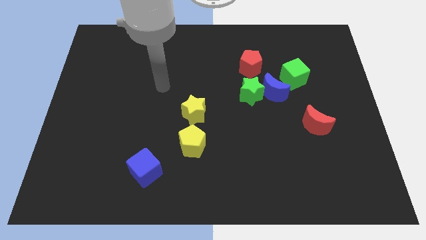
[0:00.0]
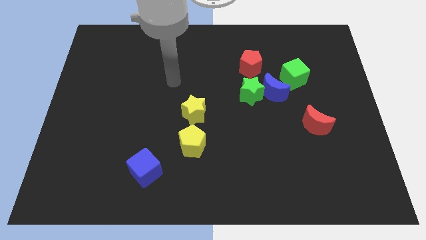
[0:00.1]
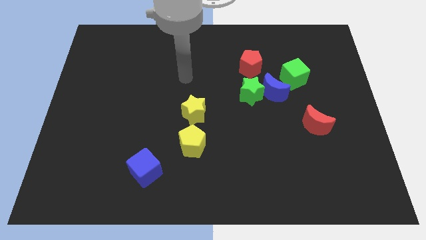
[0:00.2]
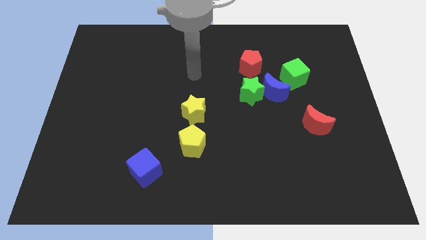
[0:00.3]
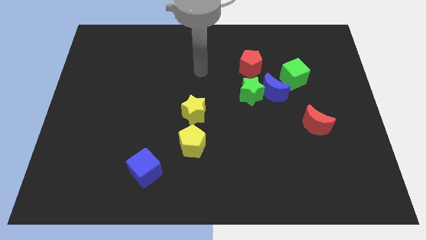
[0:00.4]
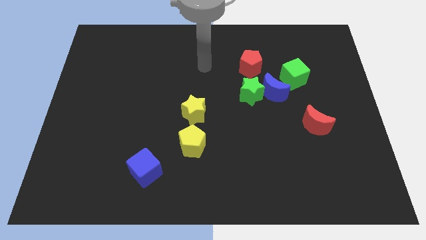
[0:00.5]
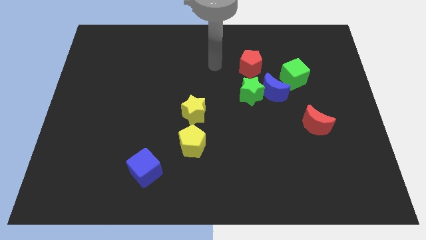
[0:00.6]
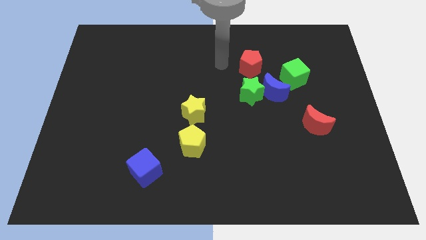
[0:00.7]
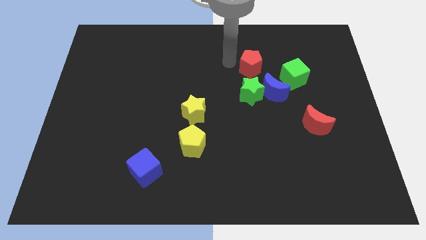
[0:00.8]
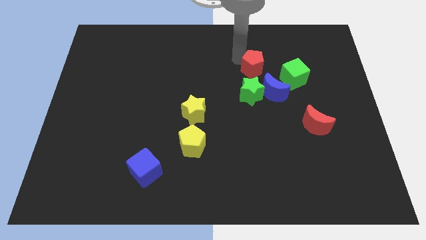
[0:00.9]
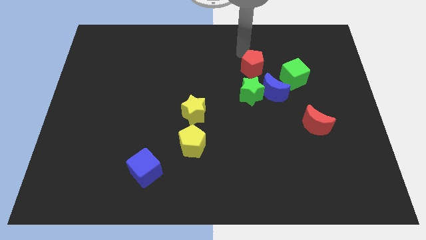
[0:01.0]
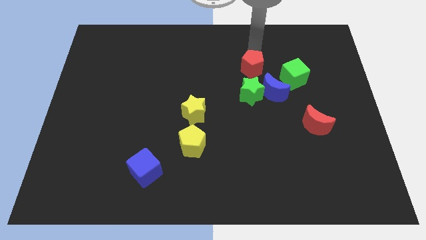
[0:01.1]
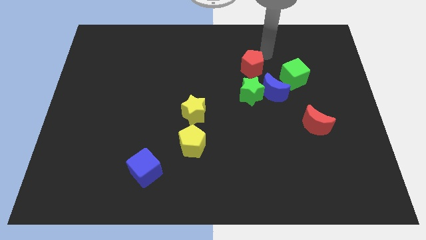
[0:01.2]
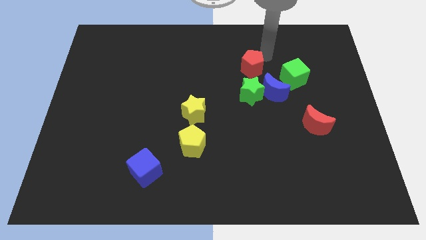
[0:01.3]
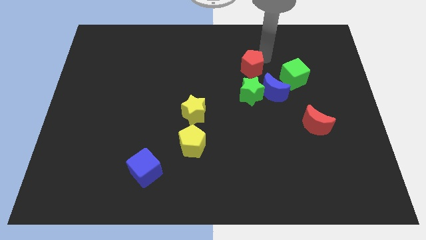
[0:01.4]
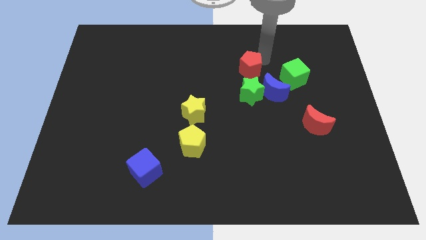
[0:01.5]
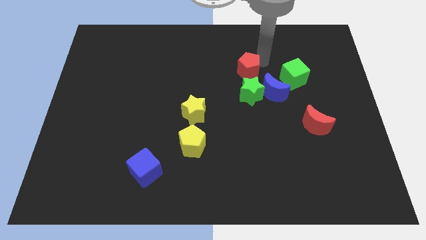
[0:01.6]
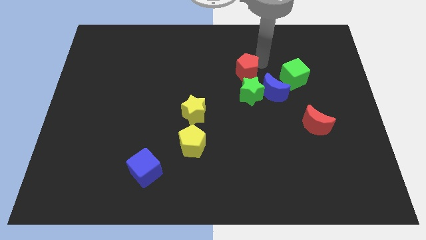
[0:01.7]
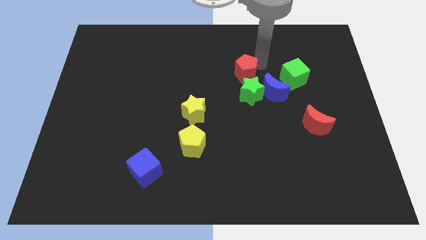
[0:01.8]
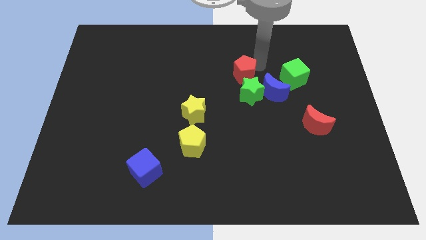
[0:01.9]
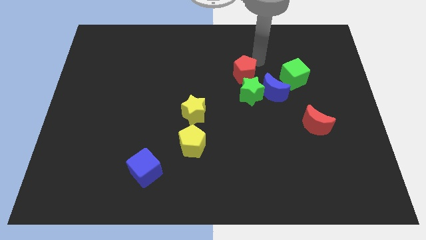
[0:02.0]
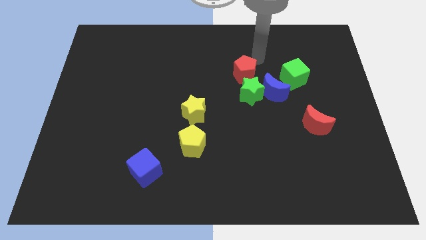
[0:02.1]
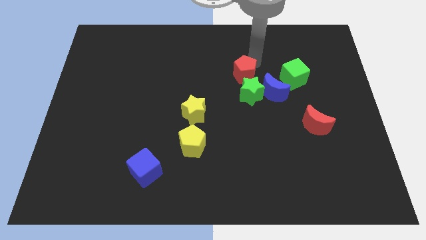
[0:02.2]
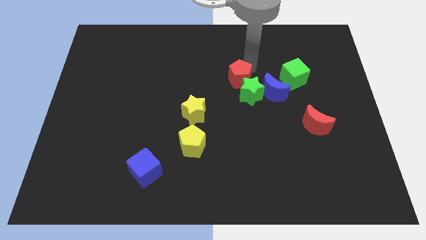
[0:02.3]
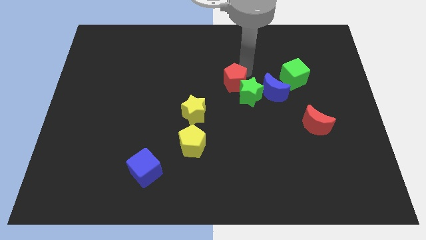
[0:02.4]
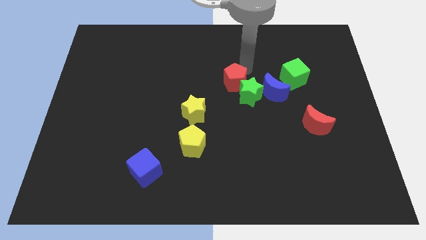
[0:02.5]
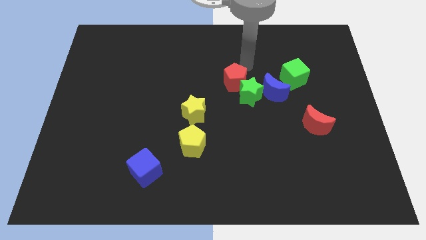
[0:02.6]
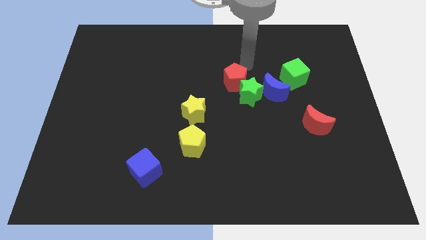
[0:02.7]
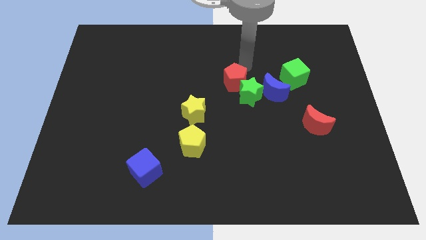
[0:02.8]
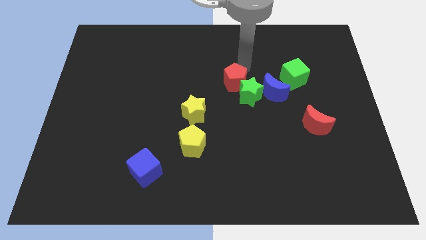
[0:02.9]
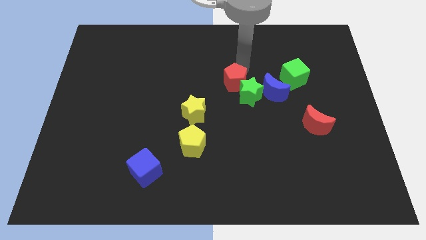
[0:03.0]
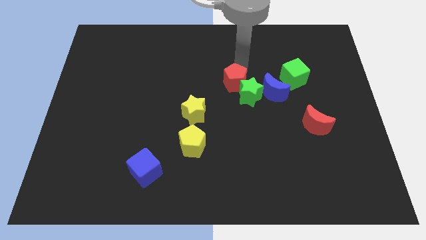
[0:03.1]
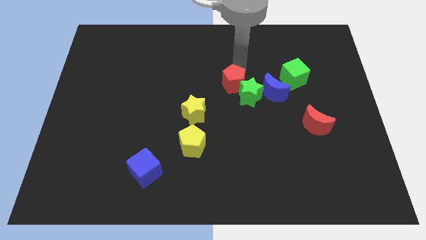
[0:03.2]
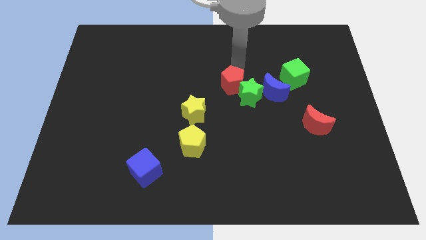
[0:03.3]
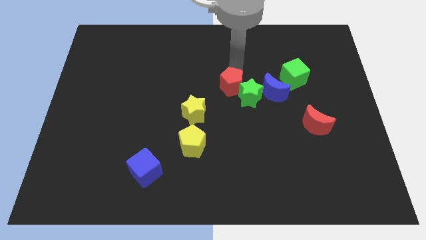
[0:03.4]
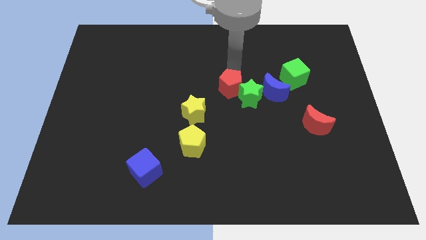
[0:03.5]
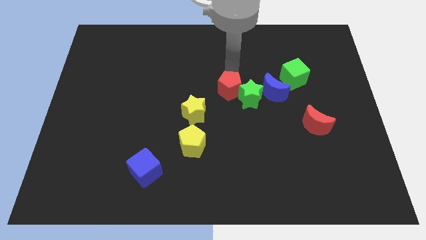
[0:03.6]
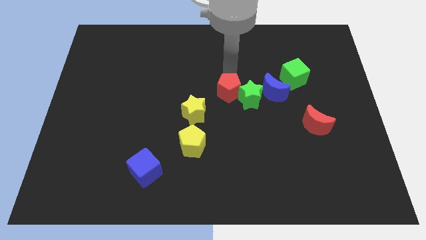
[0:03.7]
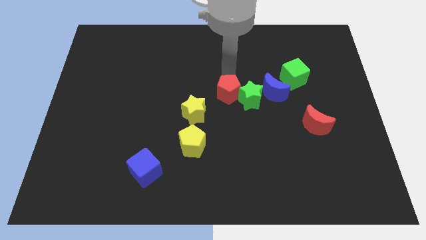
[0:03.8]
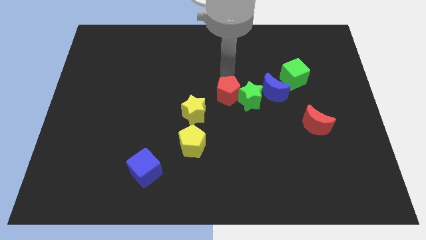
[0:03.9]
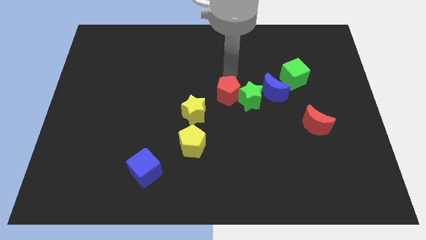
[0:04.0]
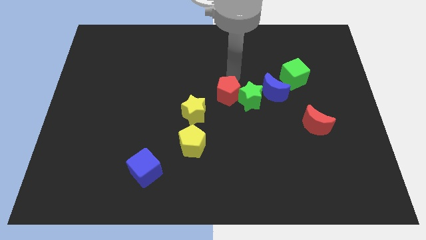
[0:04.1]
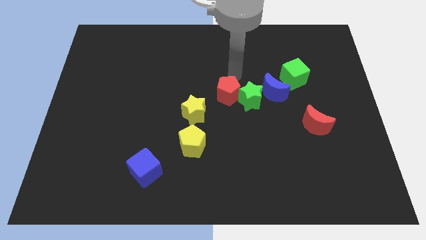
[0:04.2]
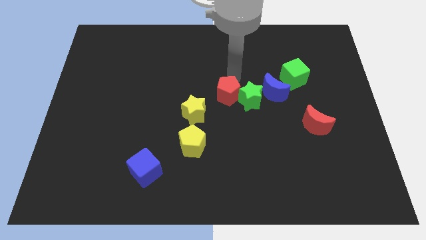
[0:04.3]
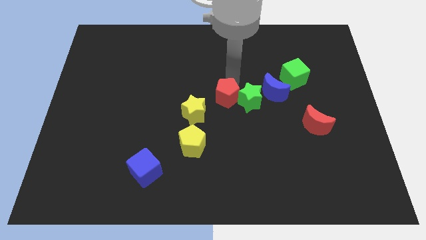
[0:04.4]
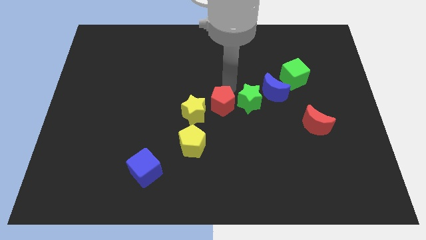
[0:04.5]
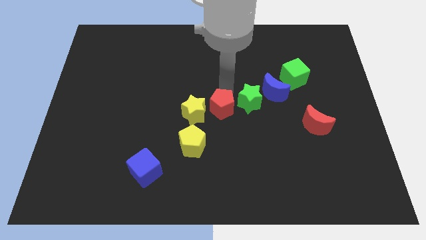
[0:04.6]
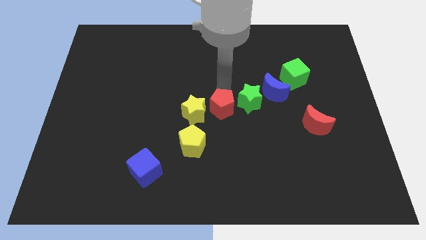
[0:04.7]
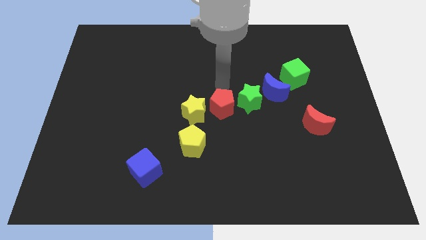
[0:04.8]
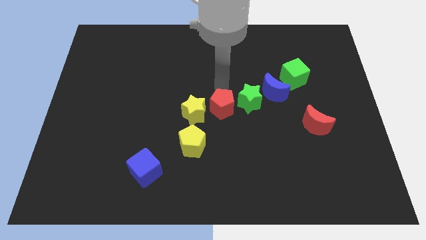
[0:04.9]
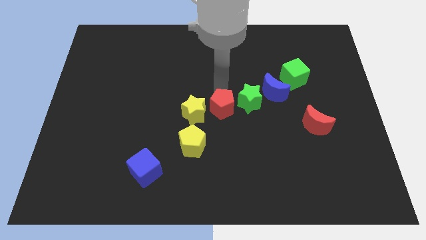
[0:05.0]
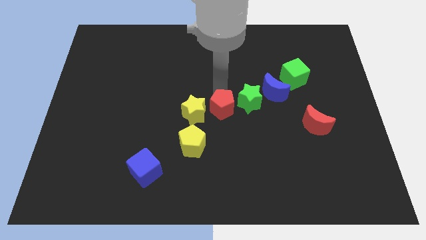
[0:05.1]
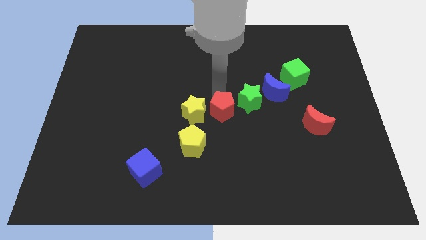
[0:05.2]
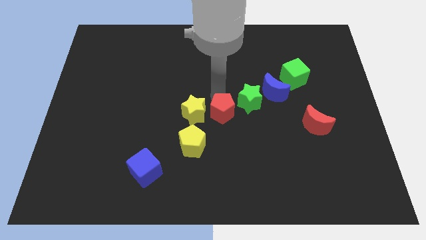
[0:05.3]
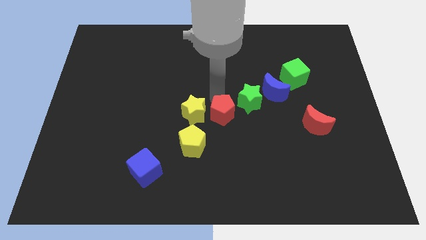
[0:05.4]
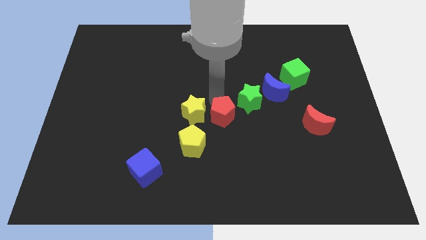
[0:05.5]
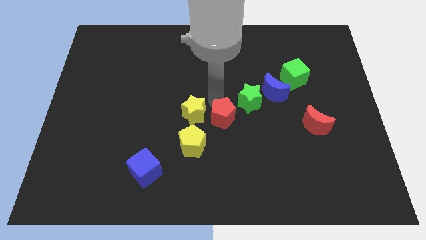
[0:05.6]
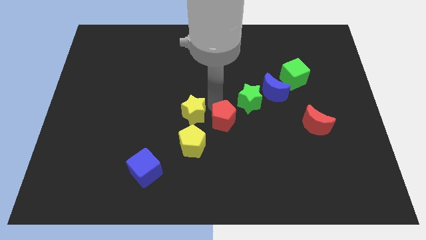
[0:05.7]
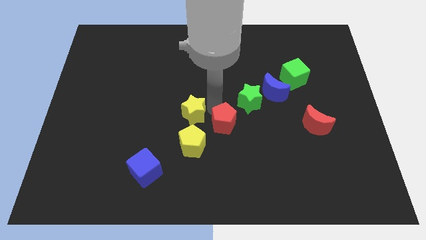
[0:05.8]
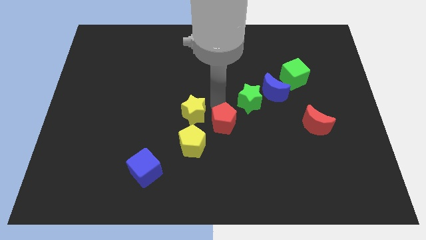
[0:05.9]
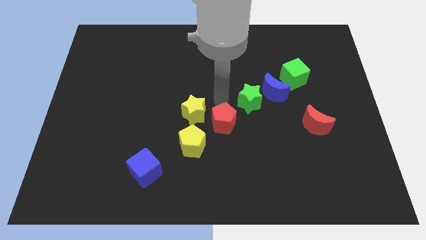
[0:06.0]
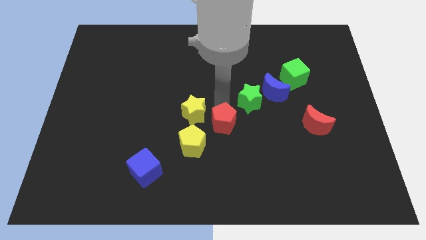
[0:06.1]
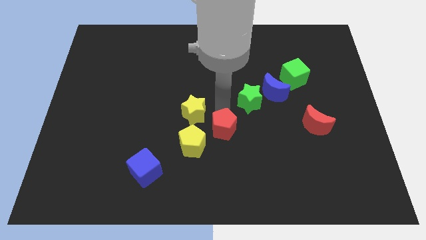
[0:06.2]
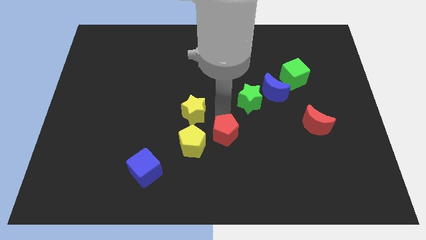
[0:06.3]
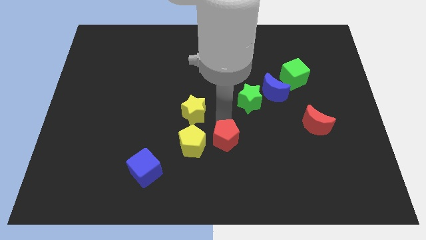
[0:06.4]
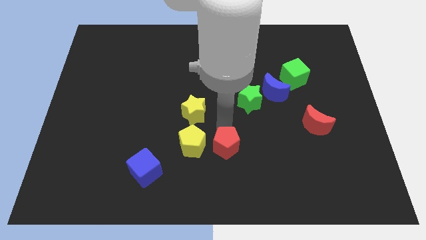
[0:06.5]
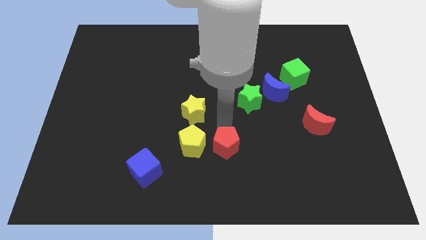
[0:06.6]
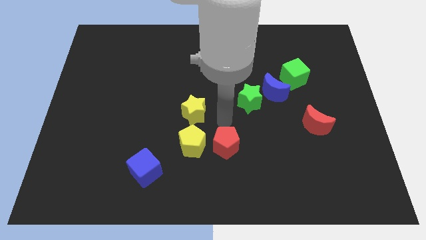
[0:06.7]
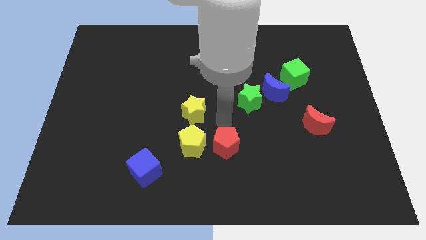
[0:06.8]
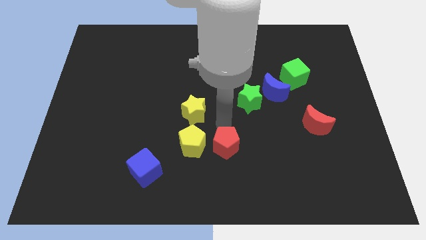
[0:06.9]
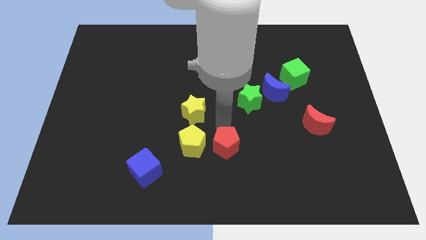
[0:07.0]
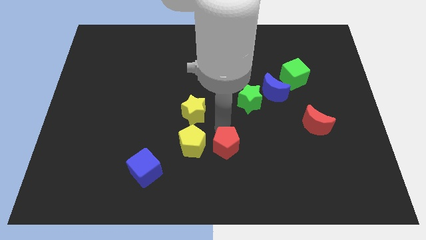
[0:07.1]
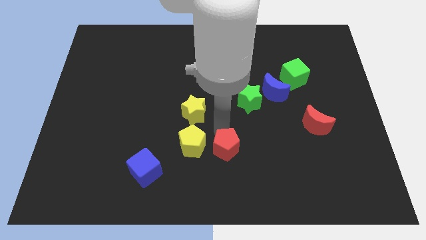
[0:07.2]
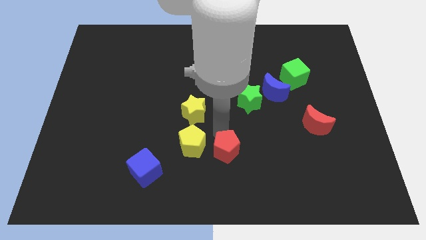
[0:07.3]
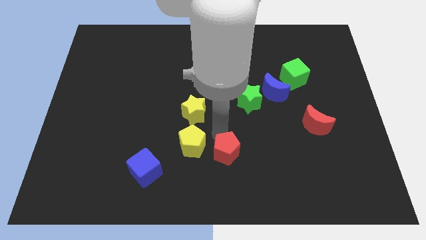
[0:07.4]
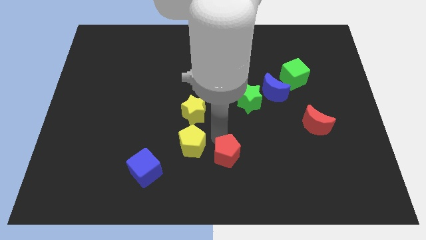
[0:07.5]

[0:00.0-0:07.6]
move the red pentagon to the bottom
